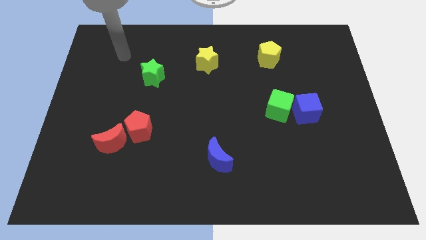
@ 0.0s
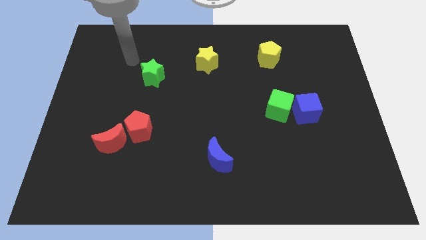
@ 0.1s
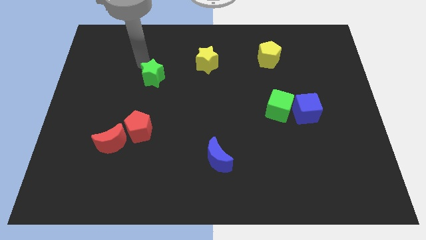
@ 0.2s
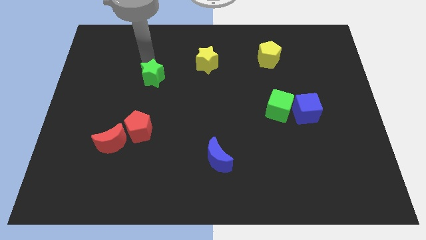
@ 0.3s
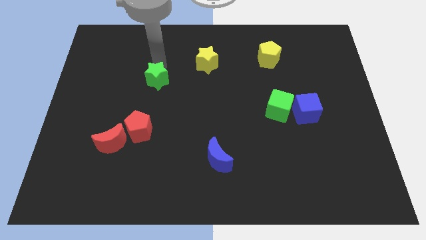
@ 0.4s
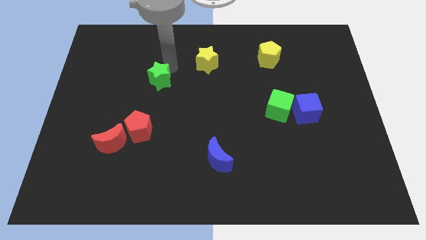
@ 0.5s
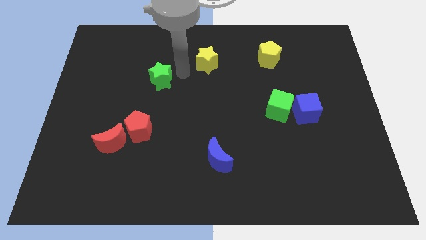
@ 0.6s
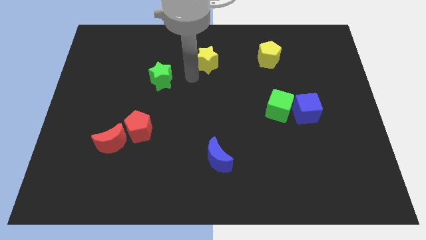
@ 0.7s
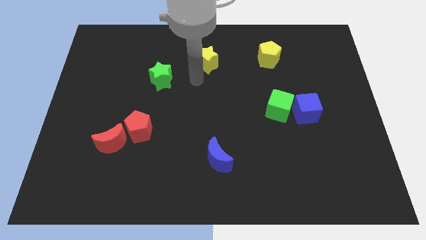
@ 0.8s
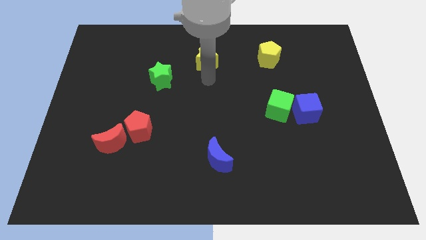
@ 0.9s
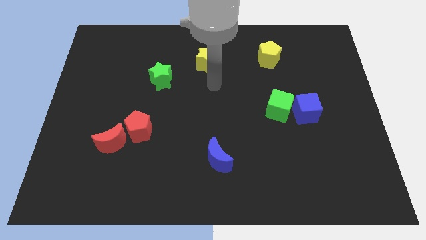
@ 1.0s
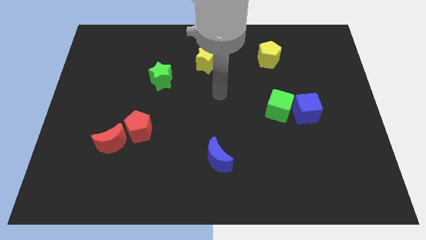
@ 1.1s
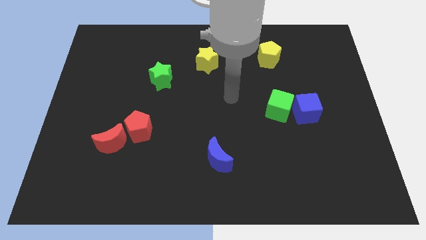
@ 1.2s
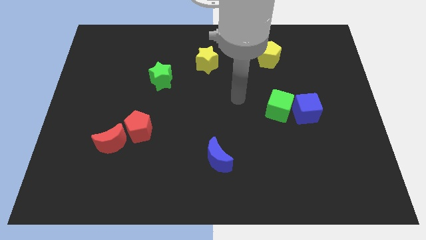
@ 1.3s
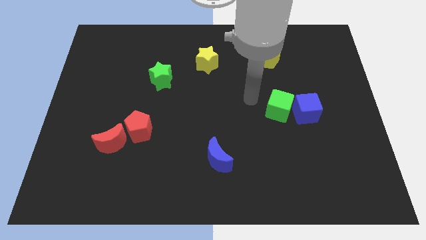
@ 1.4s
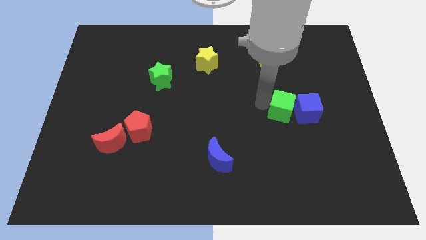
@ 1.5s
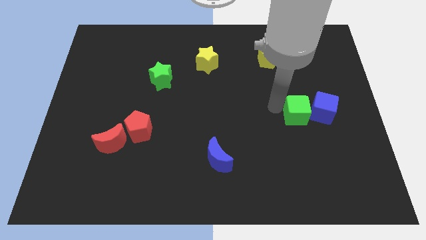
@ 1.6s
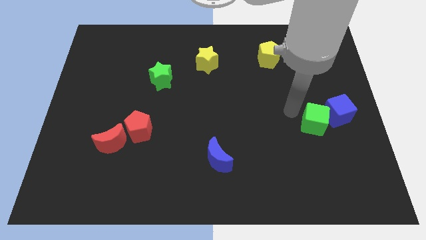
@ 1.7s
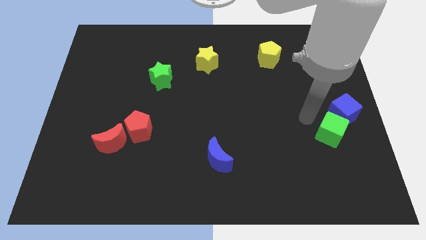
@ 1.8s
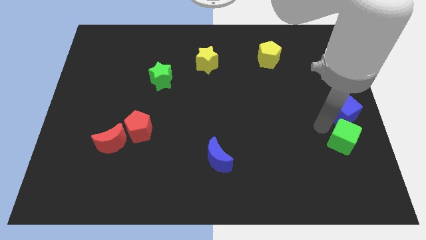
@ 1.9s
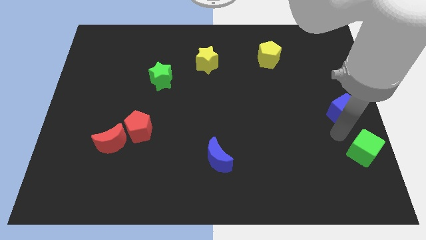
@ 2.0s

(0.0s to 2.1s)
separate the blue cube from the green cube

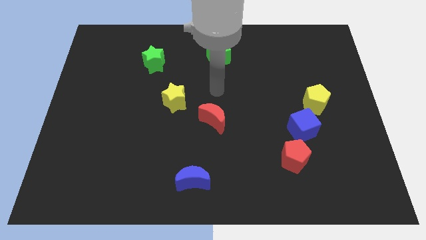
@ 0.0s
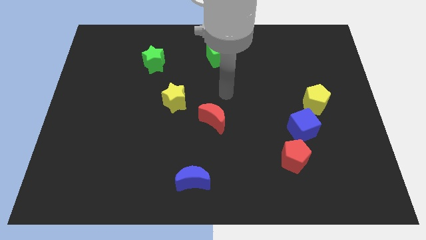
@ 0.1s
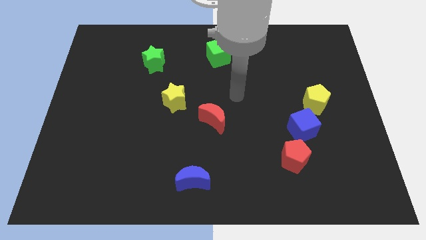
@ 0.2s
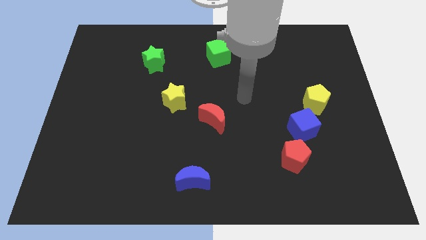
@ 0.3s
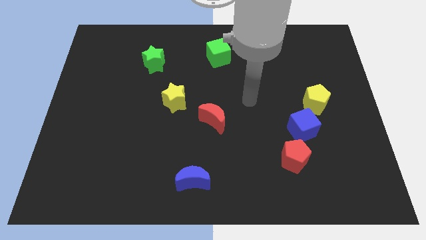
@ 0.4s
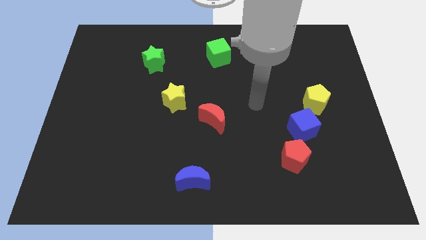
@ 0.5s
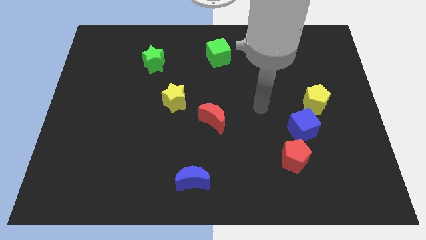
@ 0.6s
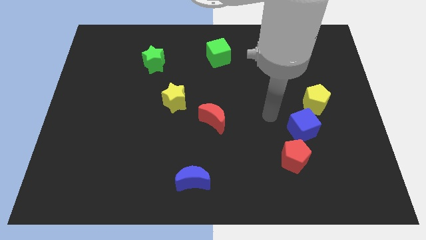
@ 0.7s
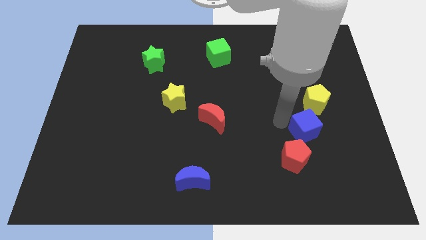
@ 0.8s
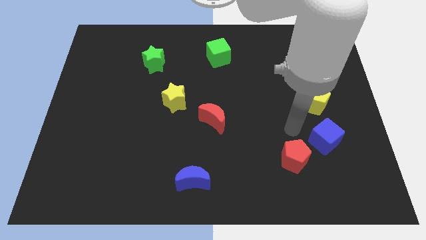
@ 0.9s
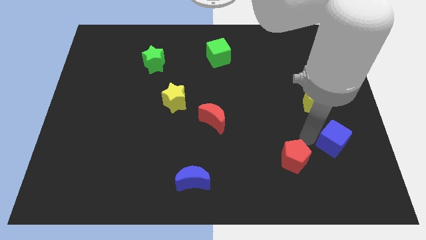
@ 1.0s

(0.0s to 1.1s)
move the red pentagon away from the blue cube

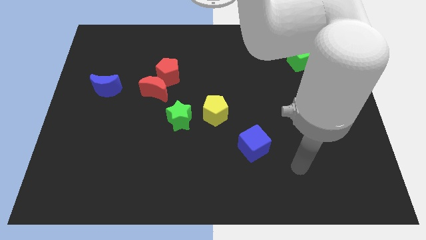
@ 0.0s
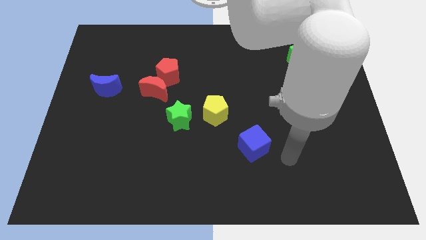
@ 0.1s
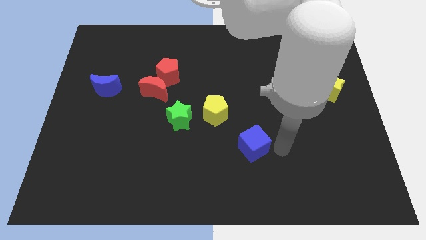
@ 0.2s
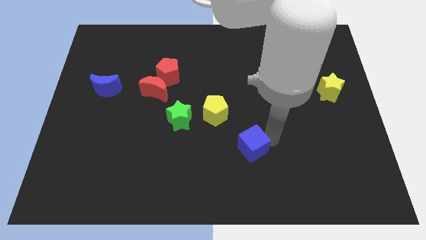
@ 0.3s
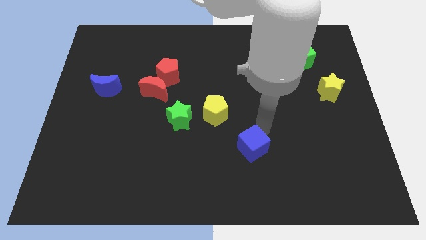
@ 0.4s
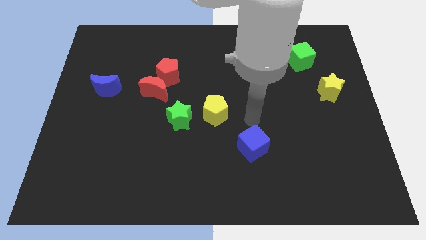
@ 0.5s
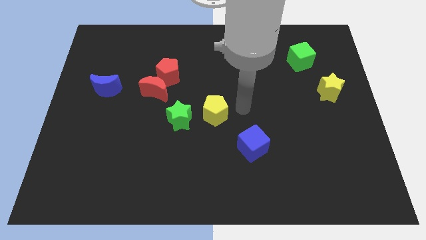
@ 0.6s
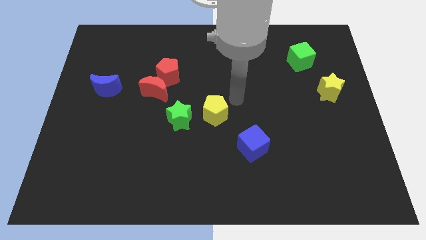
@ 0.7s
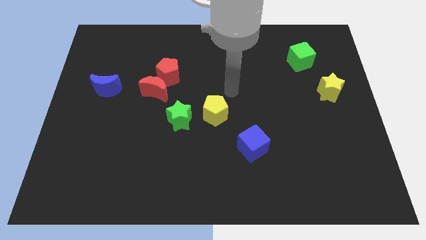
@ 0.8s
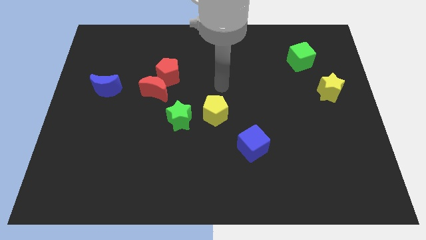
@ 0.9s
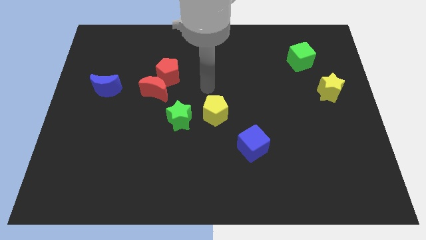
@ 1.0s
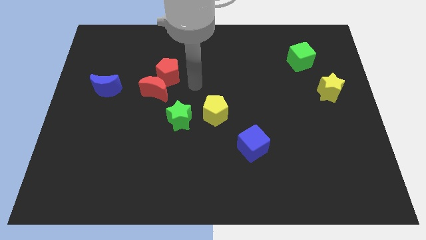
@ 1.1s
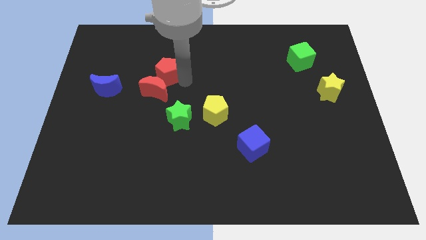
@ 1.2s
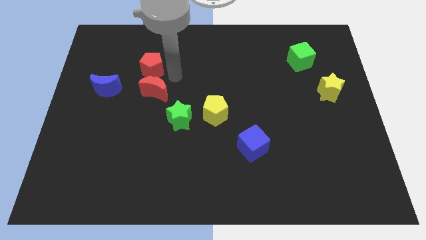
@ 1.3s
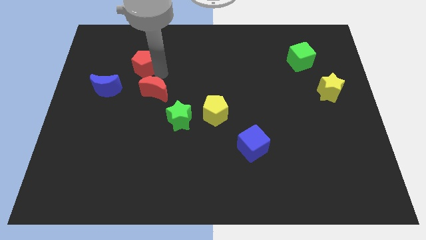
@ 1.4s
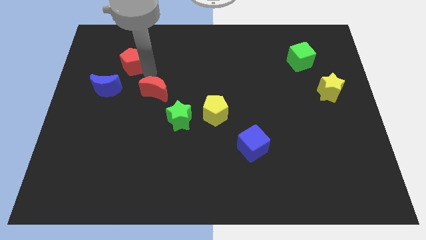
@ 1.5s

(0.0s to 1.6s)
move the red moon away from the red pentagon

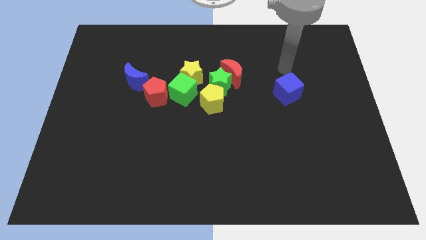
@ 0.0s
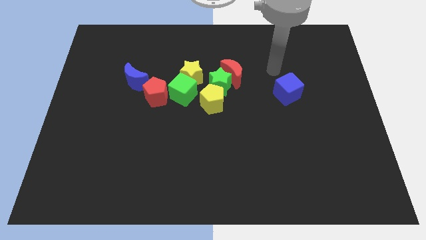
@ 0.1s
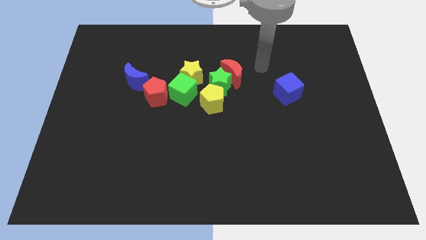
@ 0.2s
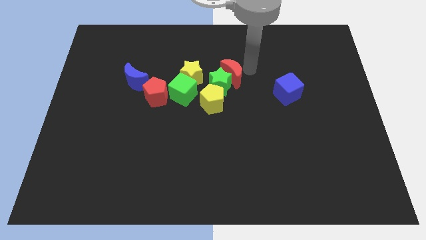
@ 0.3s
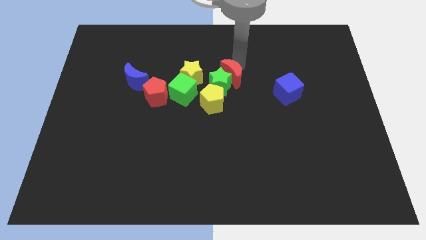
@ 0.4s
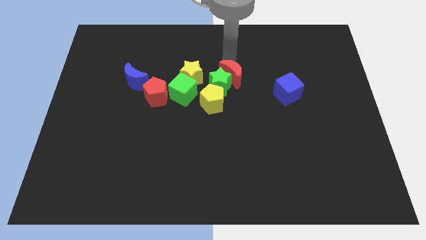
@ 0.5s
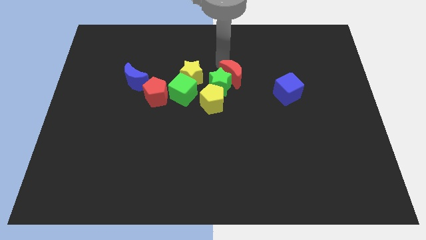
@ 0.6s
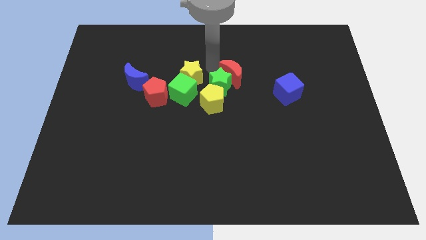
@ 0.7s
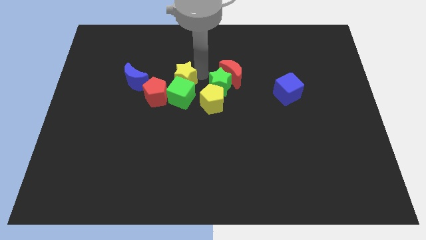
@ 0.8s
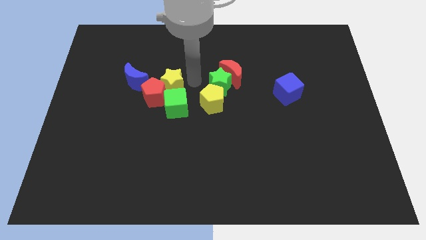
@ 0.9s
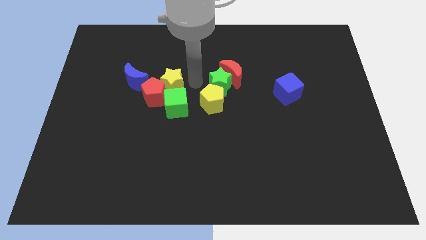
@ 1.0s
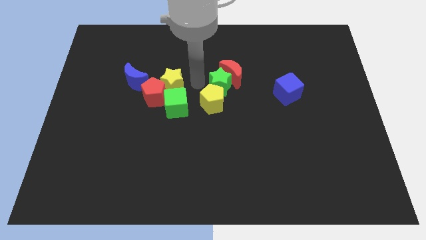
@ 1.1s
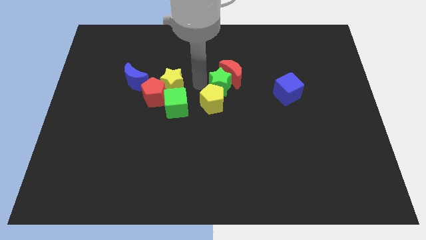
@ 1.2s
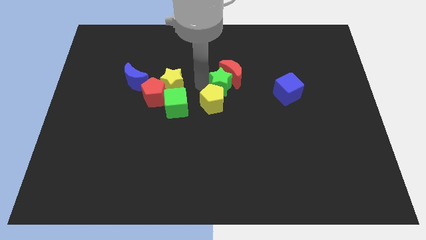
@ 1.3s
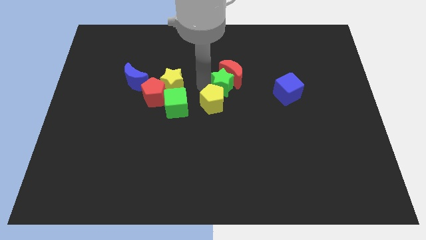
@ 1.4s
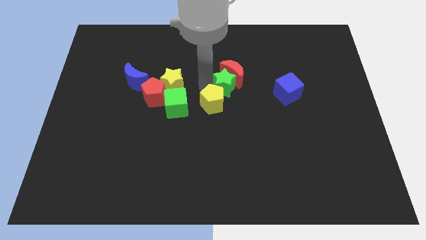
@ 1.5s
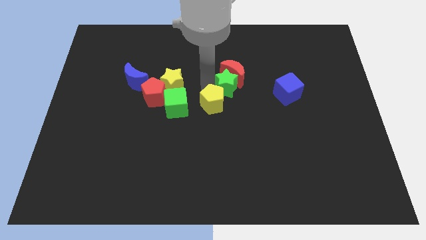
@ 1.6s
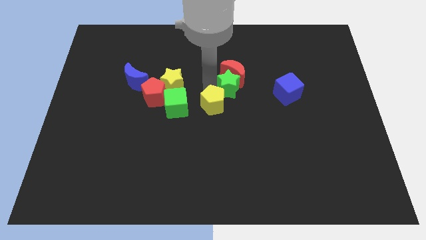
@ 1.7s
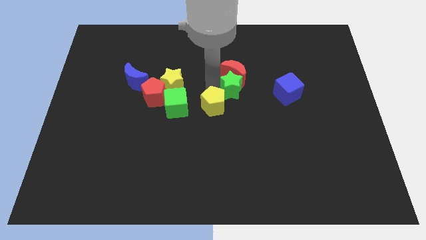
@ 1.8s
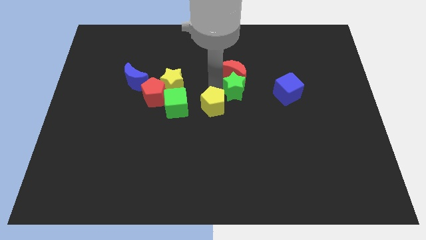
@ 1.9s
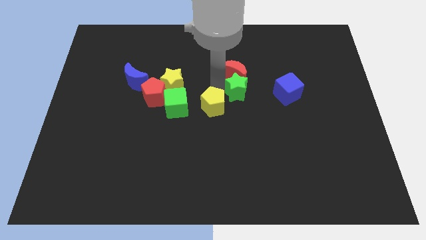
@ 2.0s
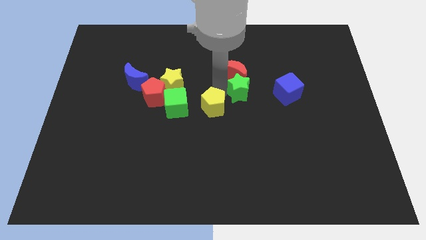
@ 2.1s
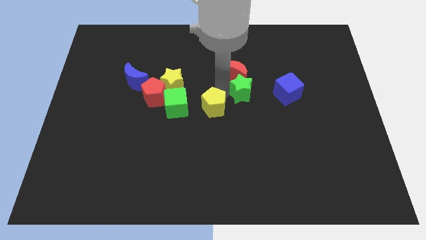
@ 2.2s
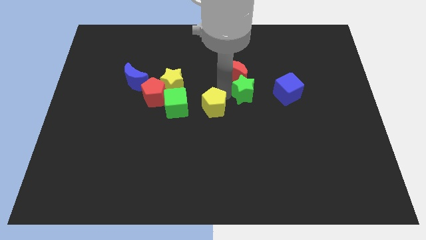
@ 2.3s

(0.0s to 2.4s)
move the green star away from the group of blocks

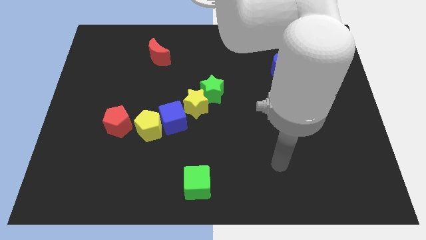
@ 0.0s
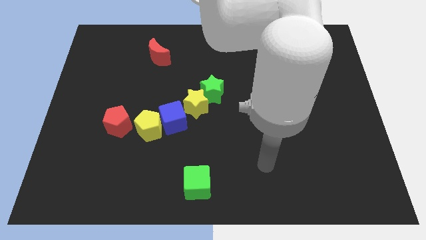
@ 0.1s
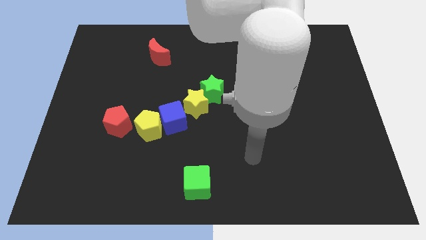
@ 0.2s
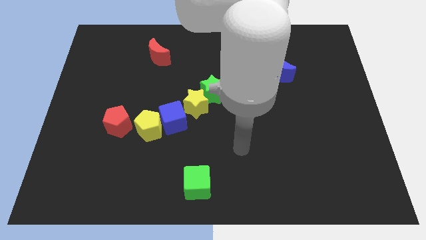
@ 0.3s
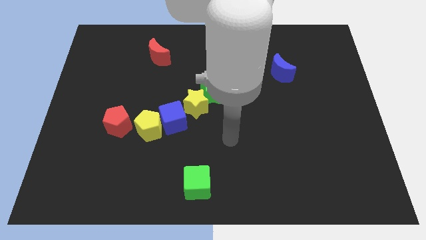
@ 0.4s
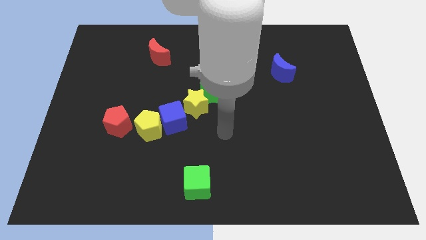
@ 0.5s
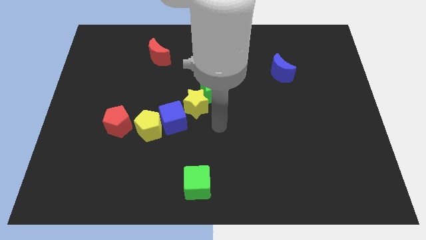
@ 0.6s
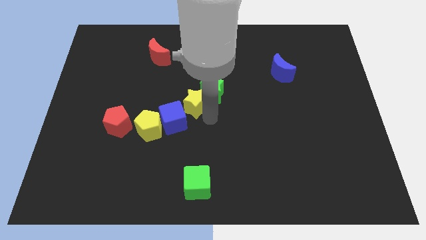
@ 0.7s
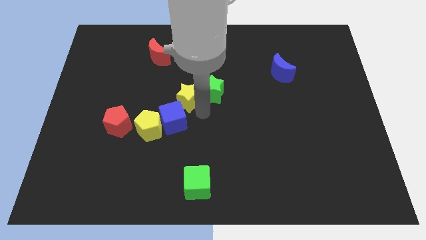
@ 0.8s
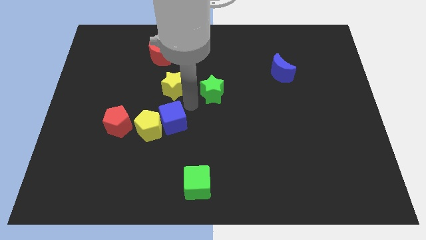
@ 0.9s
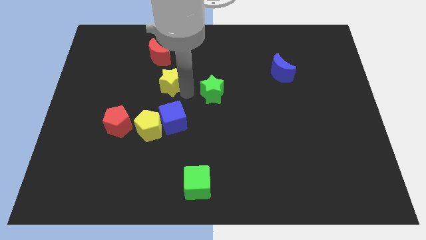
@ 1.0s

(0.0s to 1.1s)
separate the green star from the yellow star

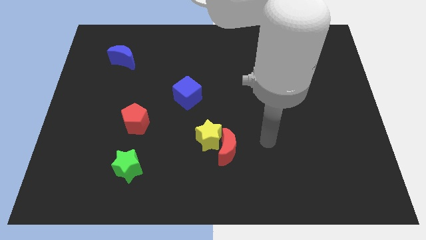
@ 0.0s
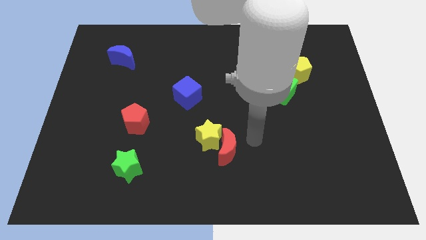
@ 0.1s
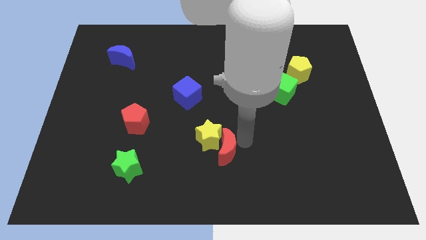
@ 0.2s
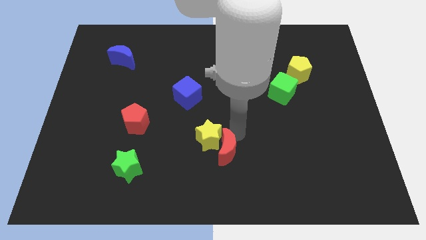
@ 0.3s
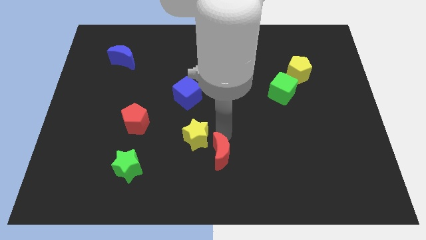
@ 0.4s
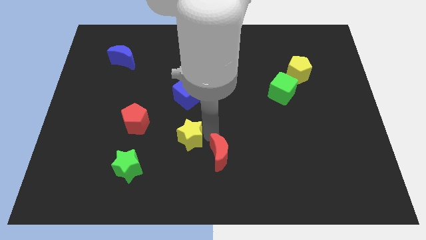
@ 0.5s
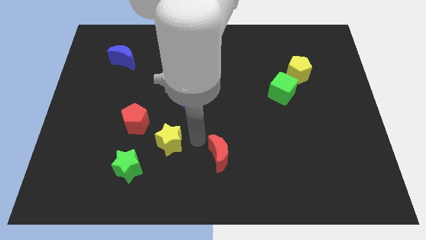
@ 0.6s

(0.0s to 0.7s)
move the red moon away from the yellow star

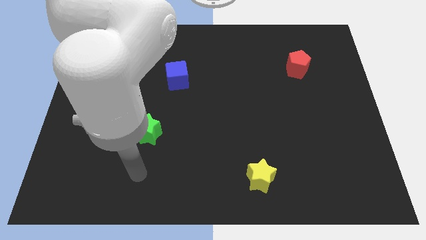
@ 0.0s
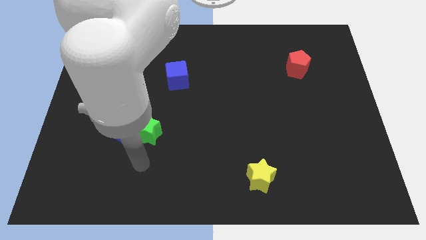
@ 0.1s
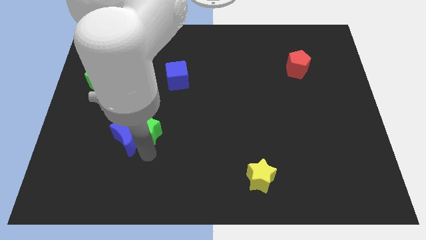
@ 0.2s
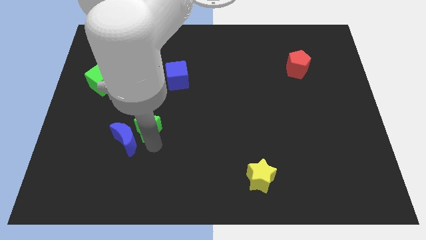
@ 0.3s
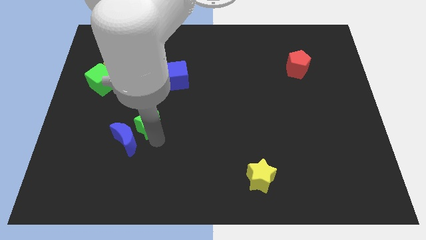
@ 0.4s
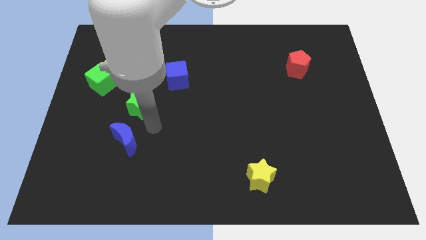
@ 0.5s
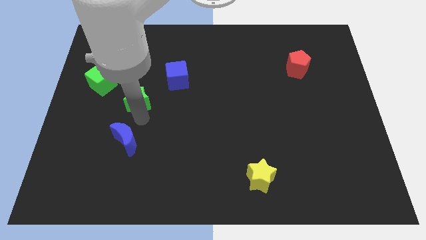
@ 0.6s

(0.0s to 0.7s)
pull the blue moon apart from the green star
